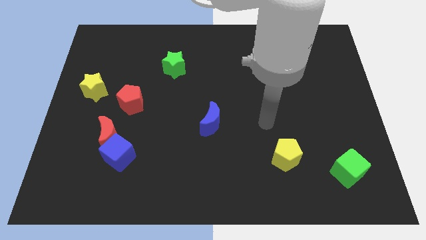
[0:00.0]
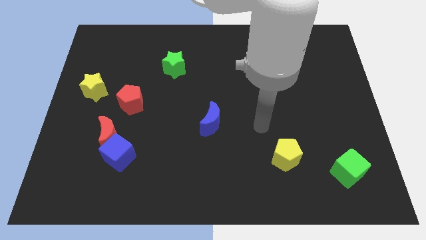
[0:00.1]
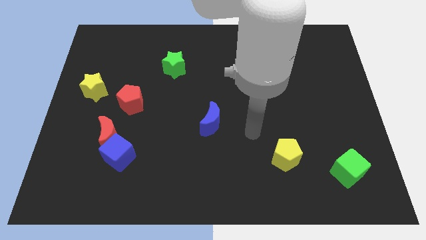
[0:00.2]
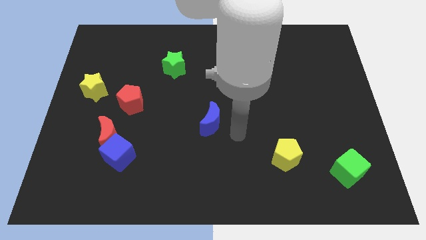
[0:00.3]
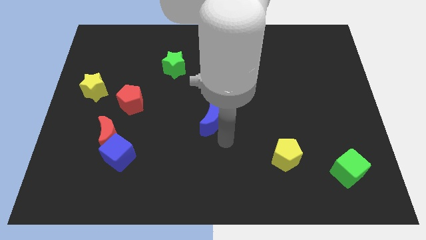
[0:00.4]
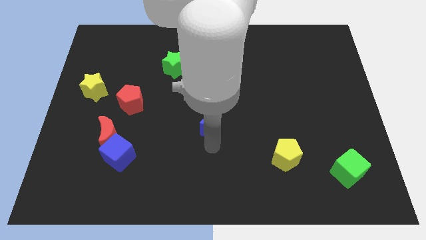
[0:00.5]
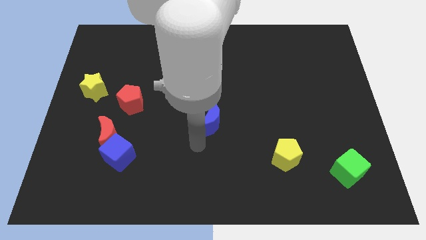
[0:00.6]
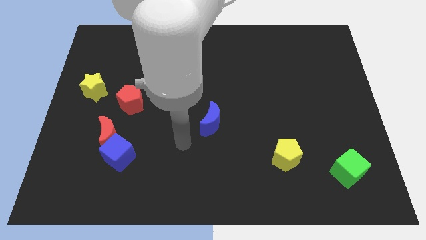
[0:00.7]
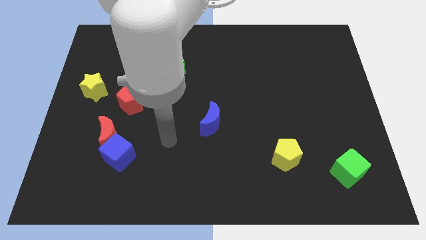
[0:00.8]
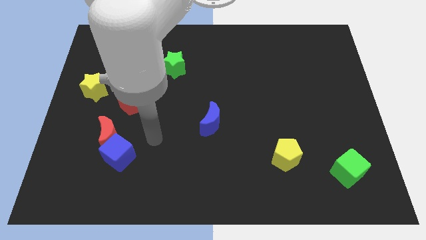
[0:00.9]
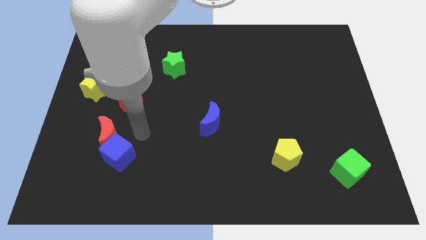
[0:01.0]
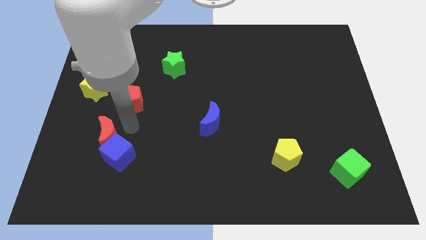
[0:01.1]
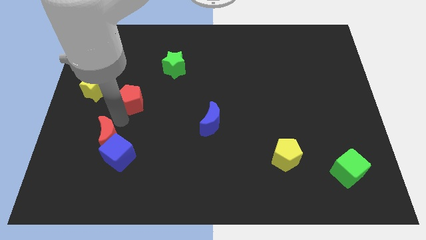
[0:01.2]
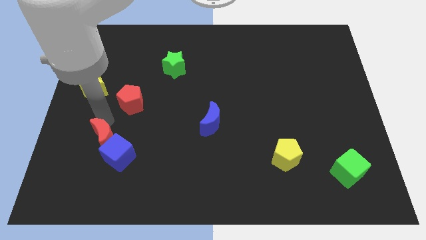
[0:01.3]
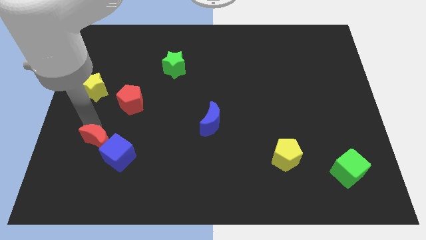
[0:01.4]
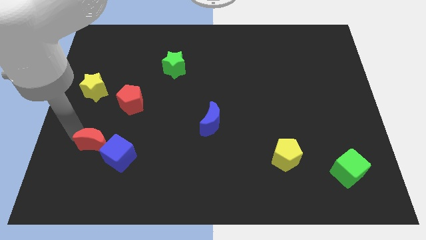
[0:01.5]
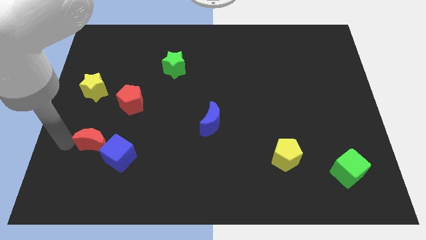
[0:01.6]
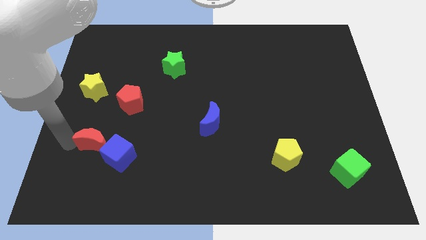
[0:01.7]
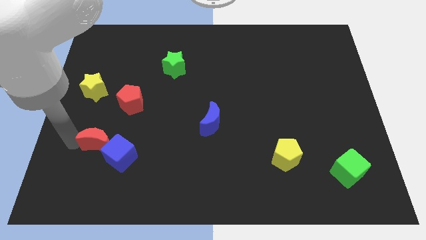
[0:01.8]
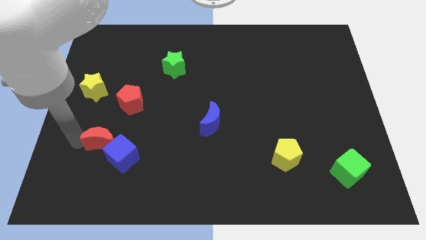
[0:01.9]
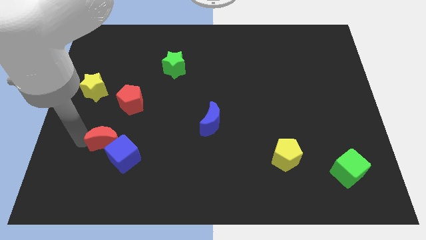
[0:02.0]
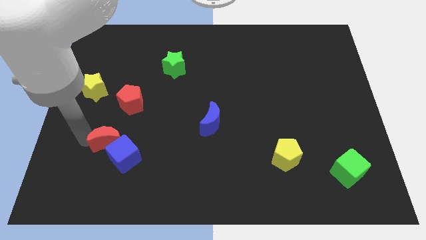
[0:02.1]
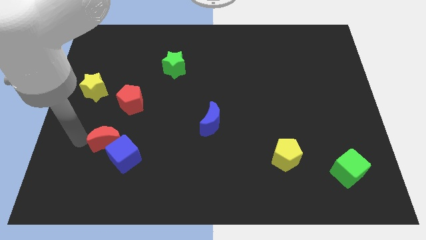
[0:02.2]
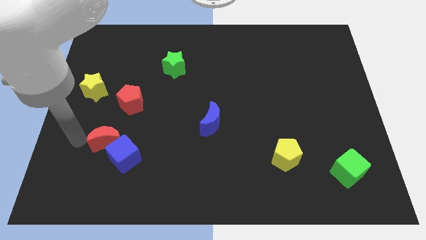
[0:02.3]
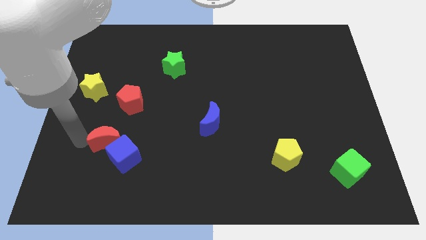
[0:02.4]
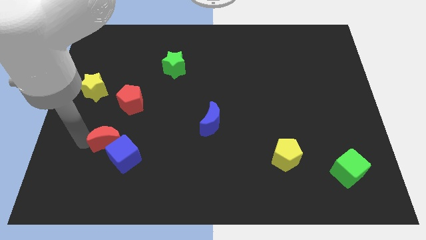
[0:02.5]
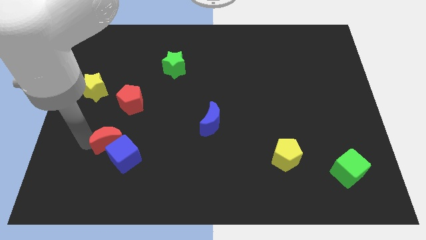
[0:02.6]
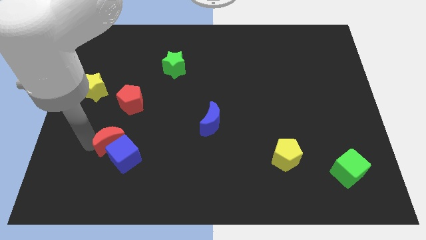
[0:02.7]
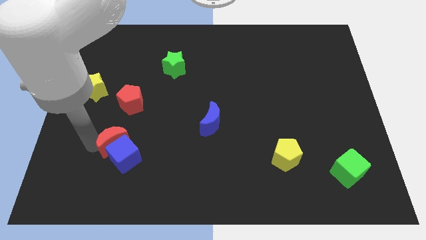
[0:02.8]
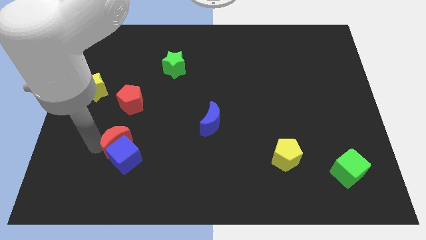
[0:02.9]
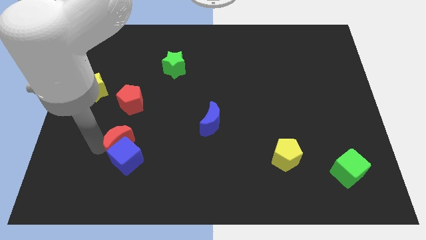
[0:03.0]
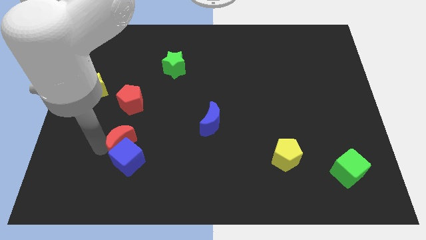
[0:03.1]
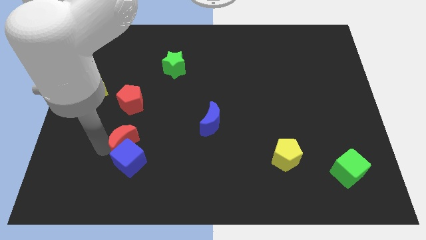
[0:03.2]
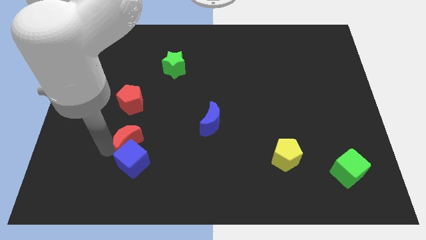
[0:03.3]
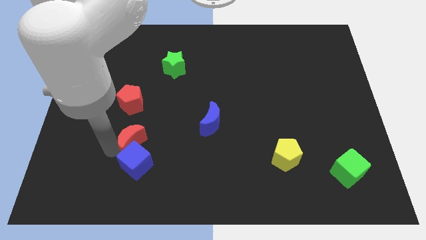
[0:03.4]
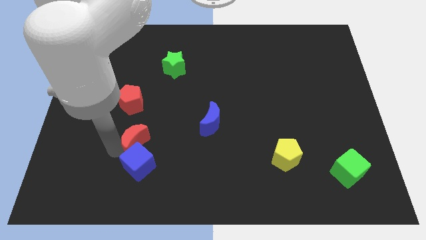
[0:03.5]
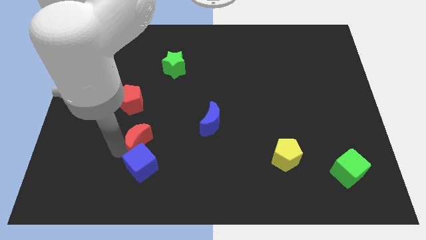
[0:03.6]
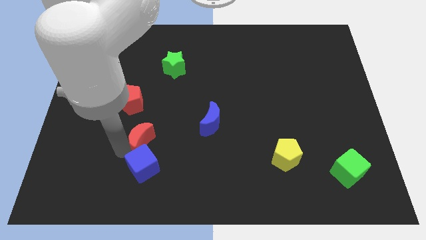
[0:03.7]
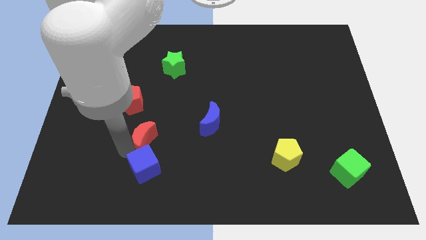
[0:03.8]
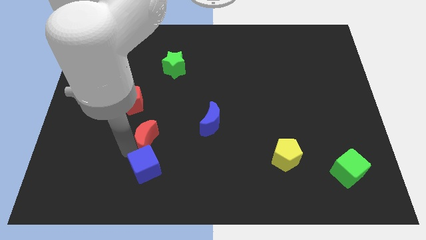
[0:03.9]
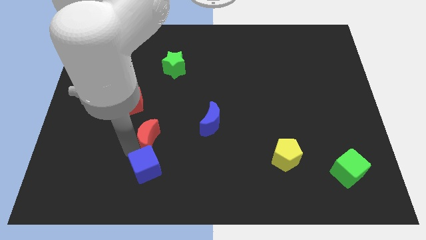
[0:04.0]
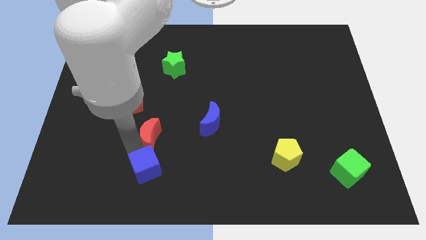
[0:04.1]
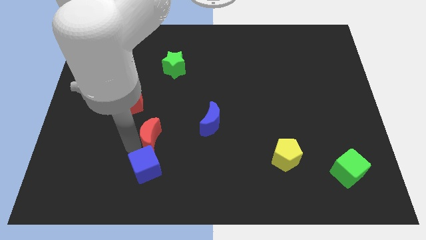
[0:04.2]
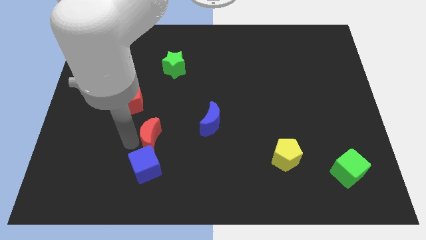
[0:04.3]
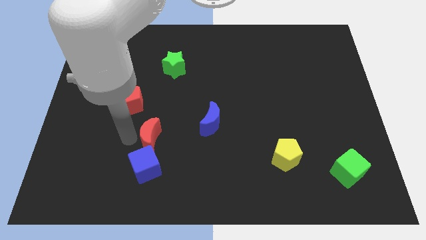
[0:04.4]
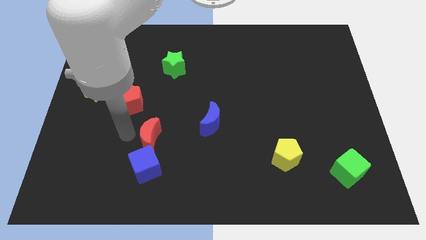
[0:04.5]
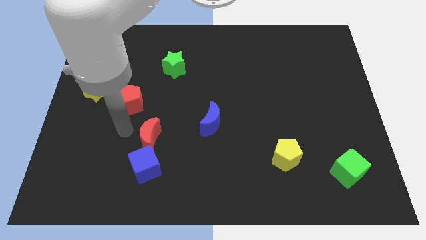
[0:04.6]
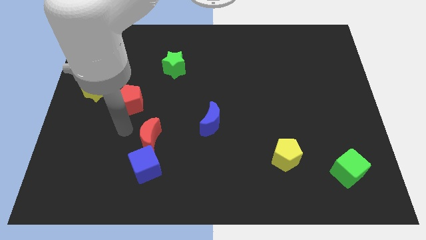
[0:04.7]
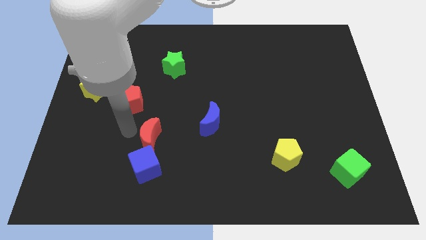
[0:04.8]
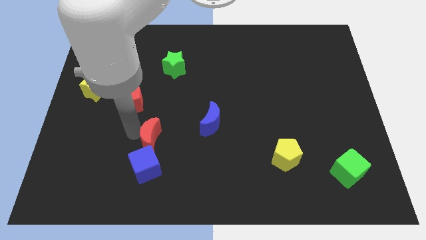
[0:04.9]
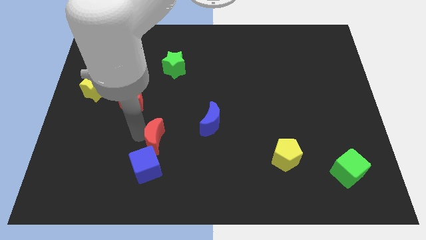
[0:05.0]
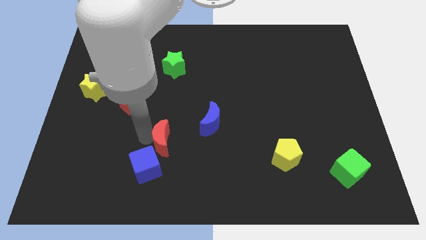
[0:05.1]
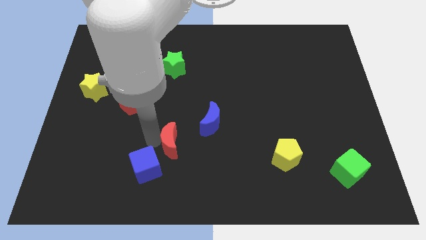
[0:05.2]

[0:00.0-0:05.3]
put the red moon diagonally down and to the left of the blue moon

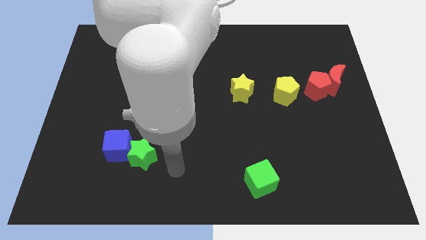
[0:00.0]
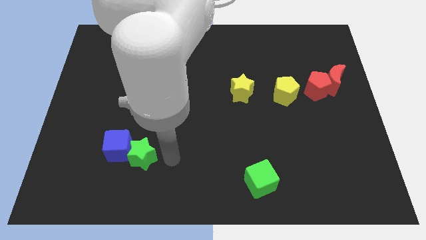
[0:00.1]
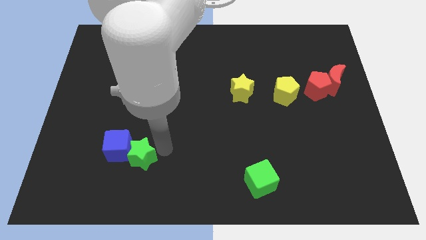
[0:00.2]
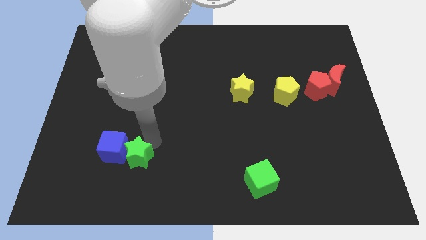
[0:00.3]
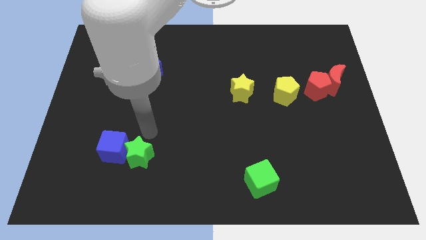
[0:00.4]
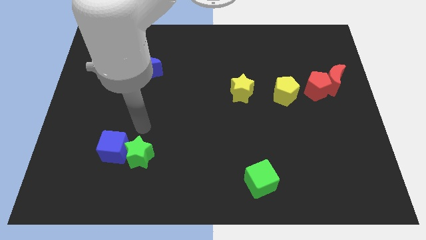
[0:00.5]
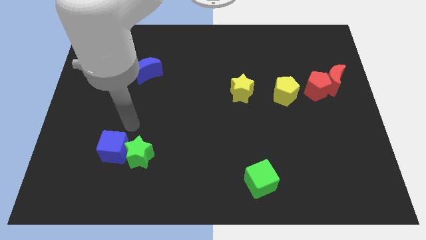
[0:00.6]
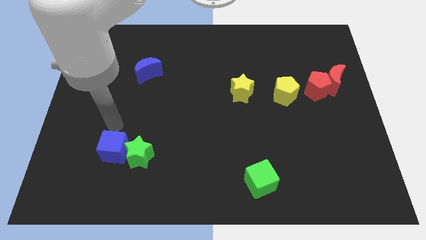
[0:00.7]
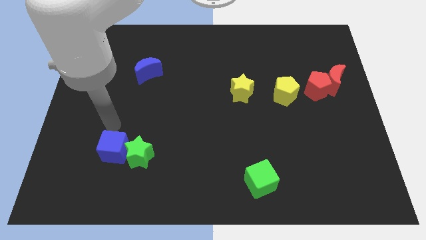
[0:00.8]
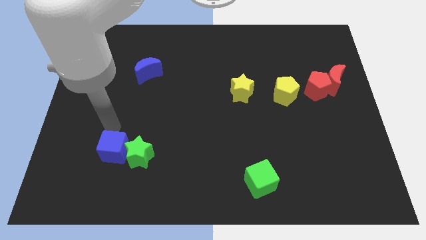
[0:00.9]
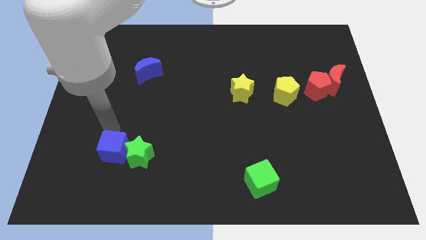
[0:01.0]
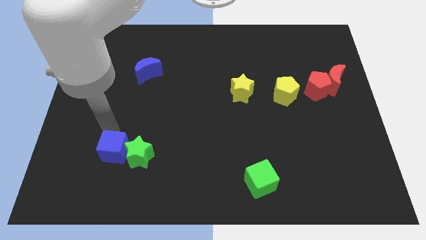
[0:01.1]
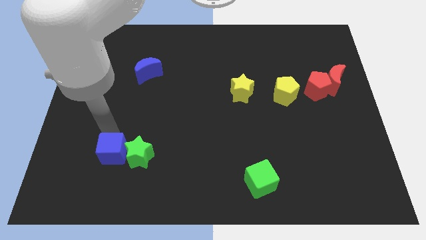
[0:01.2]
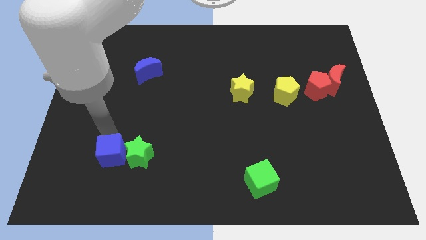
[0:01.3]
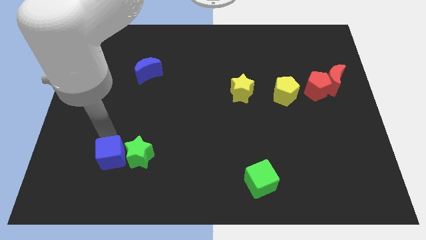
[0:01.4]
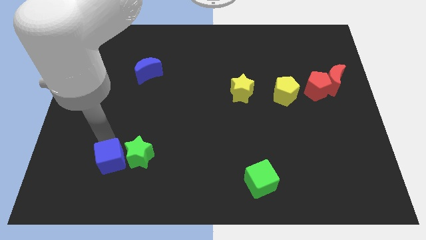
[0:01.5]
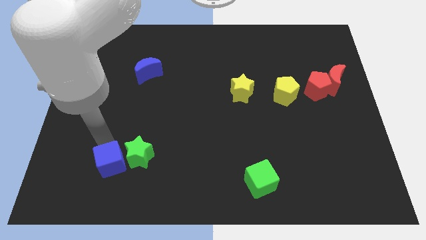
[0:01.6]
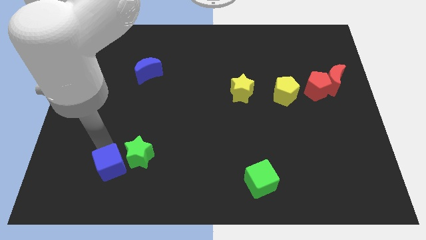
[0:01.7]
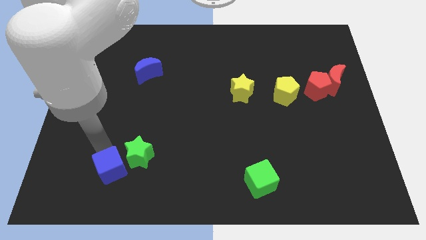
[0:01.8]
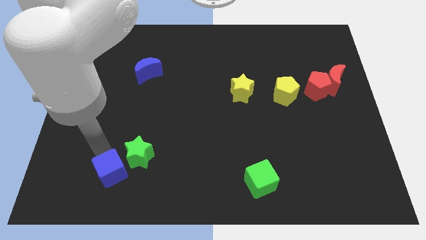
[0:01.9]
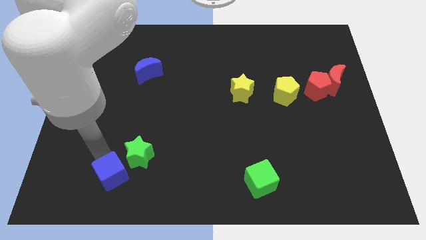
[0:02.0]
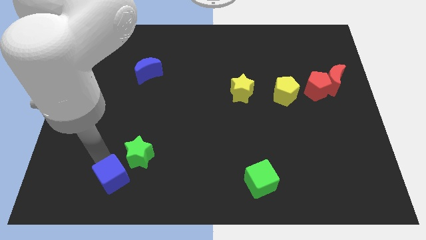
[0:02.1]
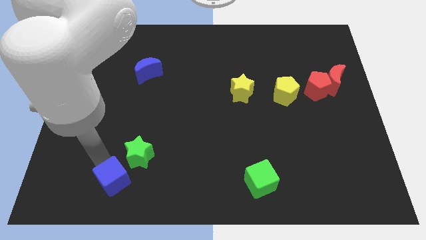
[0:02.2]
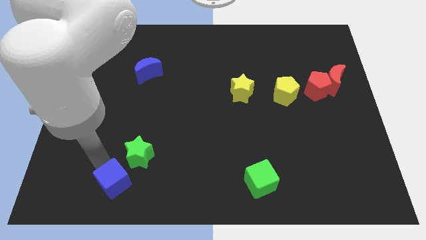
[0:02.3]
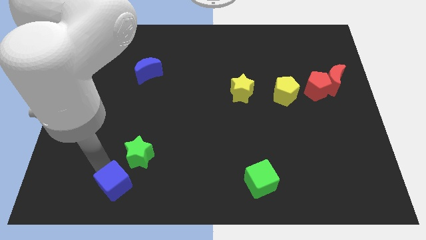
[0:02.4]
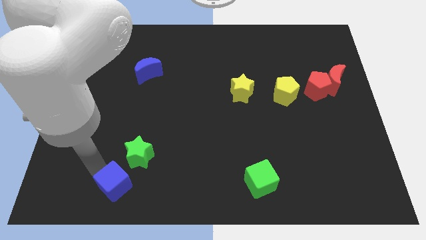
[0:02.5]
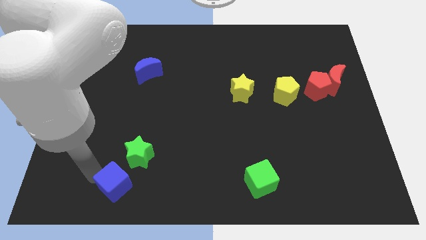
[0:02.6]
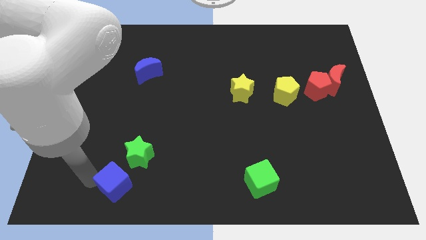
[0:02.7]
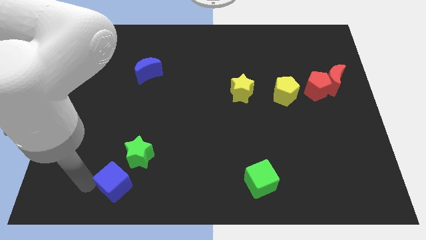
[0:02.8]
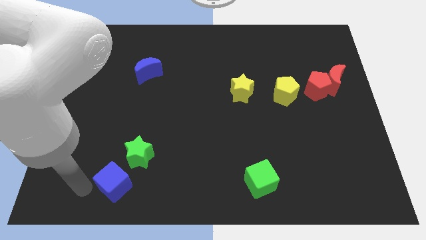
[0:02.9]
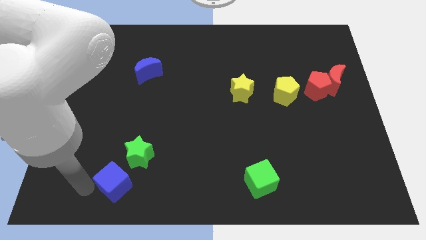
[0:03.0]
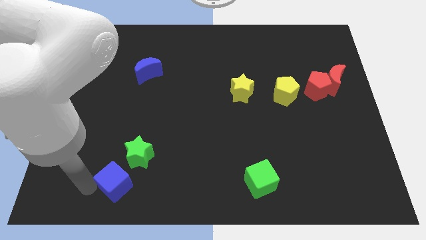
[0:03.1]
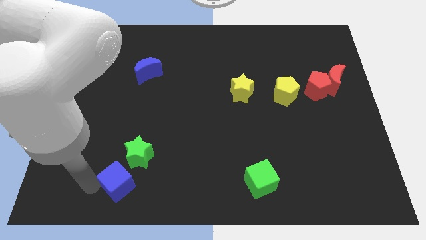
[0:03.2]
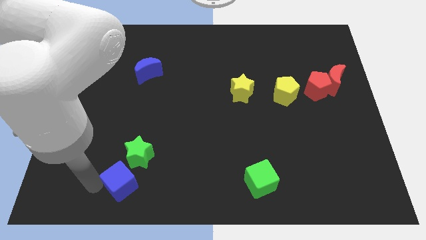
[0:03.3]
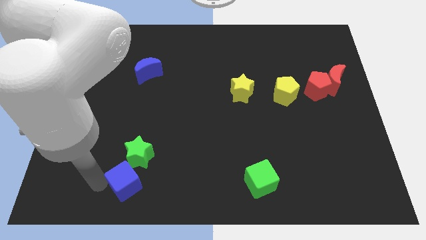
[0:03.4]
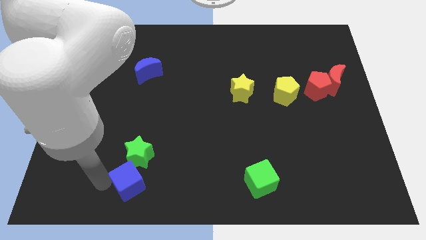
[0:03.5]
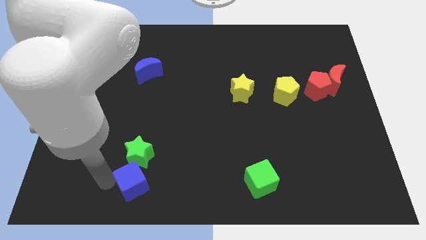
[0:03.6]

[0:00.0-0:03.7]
push the blue cube diagonally down and to the right of the green star
